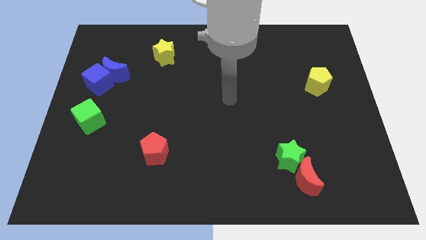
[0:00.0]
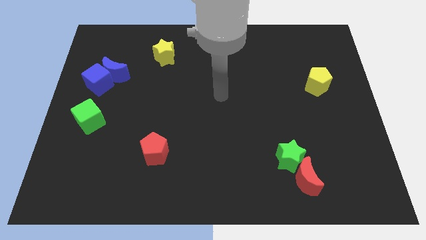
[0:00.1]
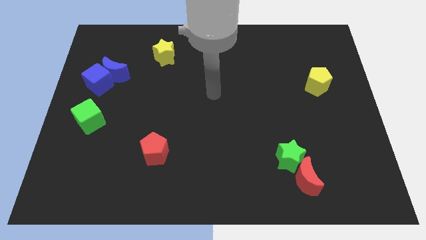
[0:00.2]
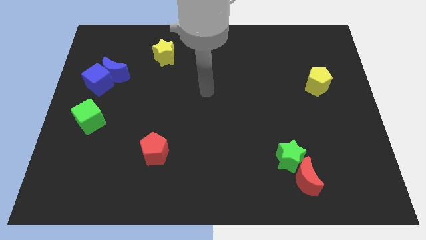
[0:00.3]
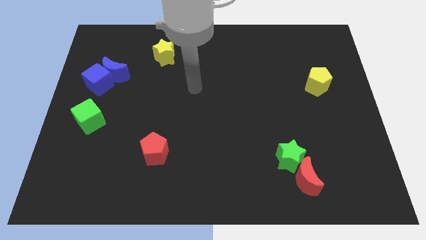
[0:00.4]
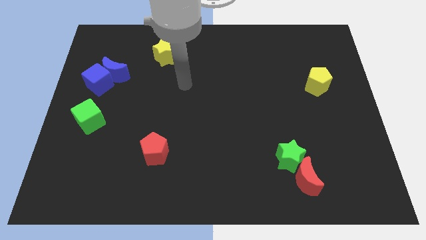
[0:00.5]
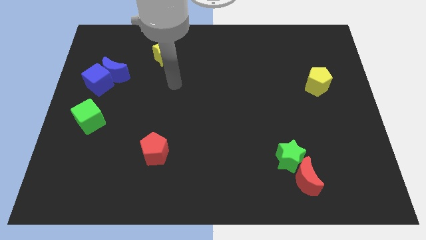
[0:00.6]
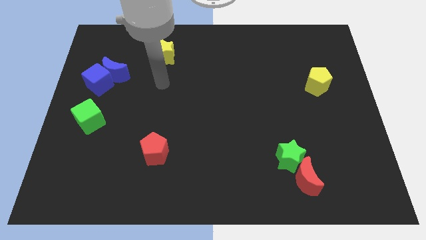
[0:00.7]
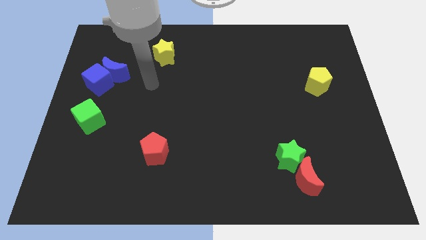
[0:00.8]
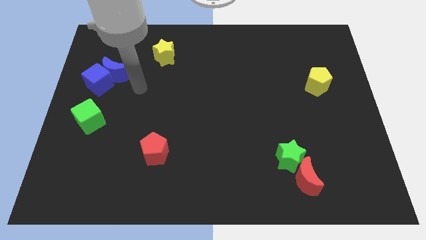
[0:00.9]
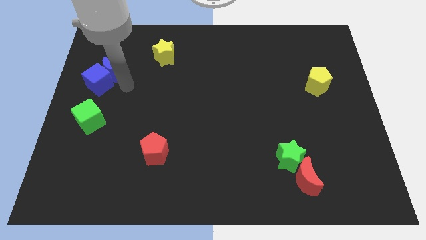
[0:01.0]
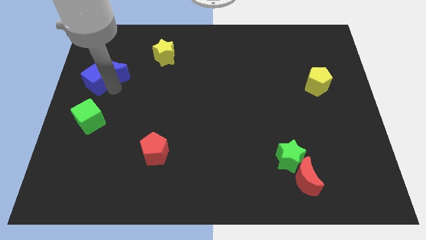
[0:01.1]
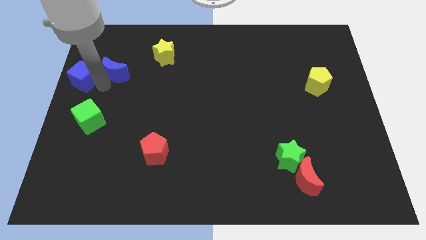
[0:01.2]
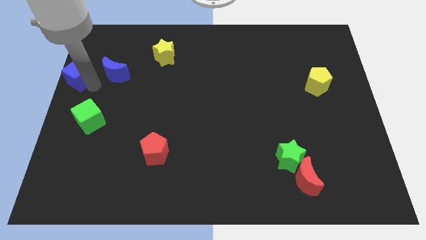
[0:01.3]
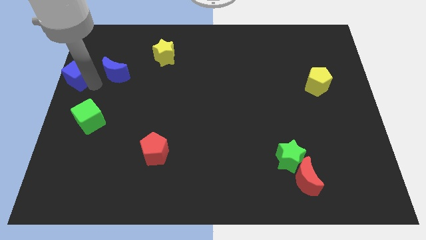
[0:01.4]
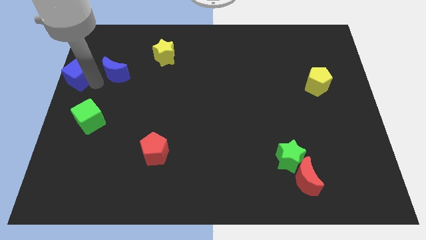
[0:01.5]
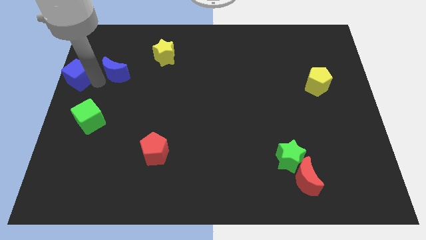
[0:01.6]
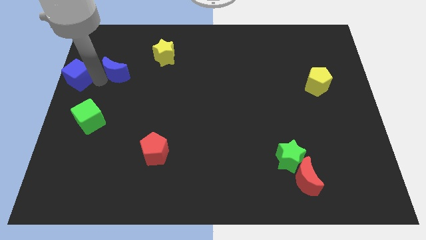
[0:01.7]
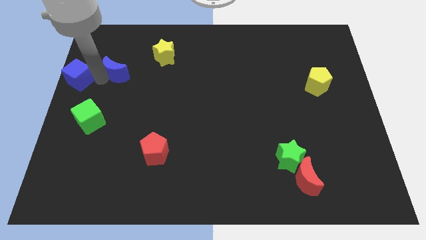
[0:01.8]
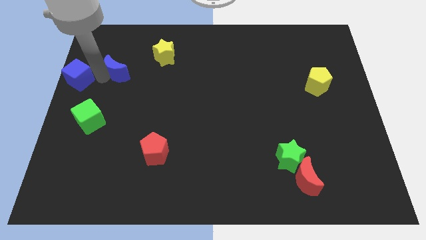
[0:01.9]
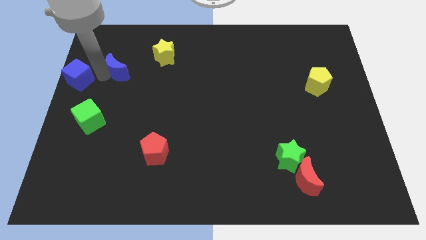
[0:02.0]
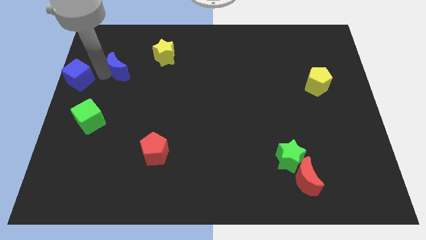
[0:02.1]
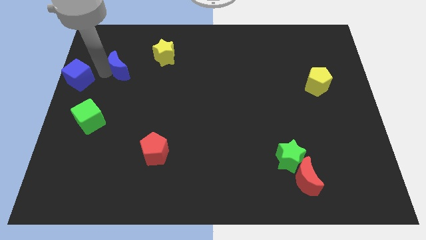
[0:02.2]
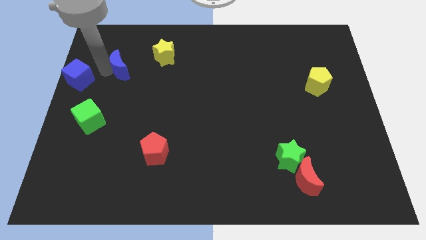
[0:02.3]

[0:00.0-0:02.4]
move the blue moon away from the blue cube

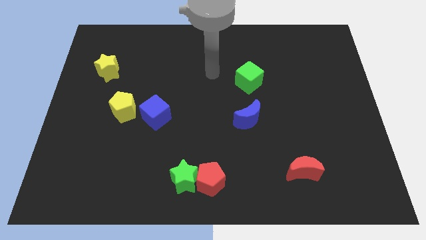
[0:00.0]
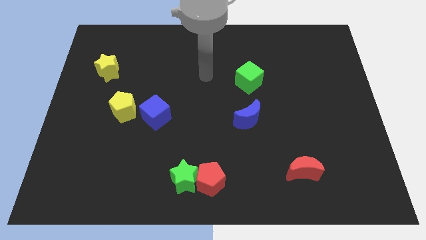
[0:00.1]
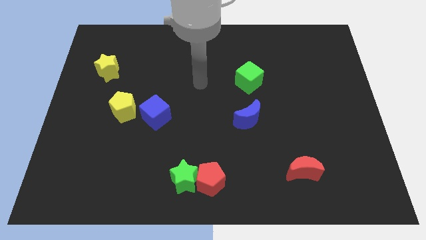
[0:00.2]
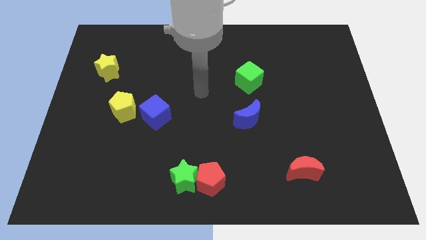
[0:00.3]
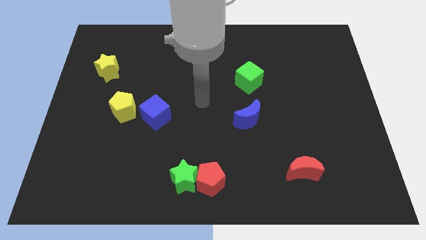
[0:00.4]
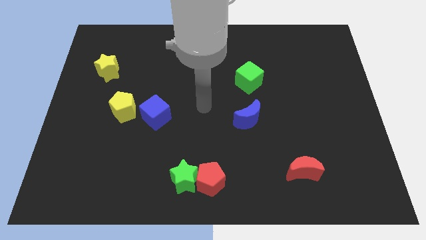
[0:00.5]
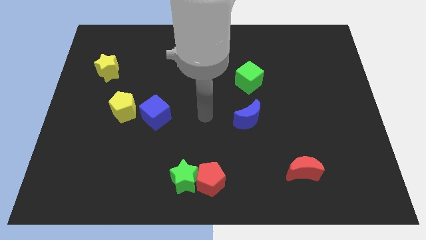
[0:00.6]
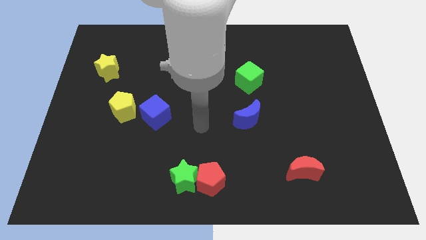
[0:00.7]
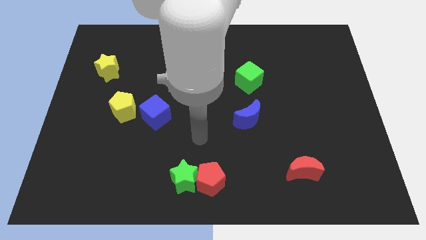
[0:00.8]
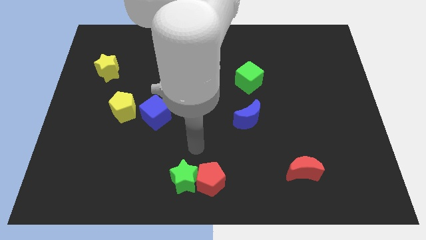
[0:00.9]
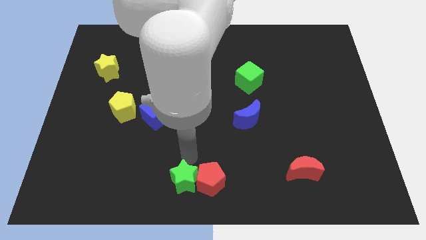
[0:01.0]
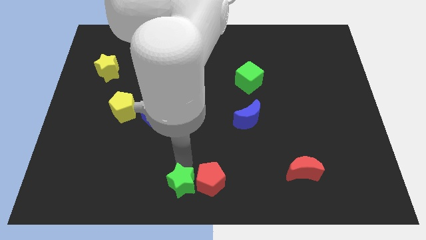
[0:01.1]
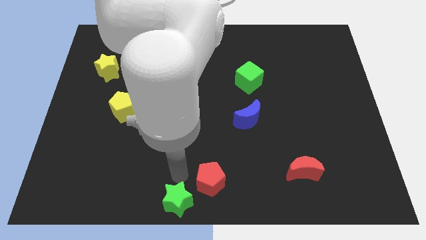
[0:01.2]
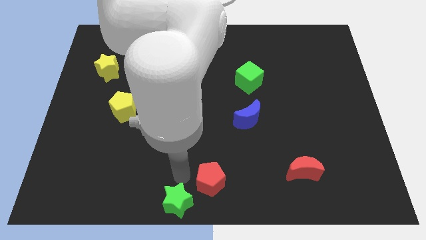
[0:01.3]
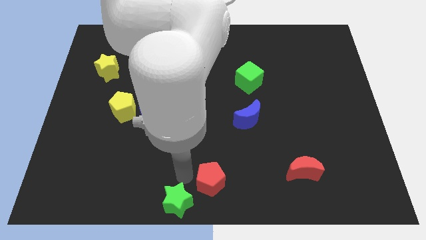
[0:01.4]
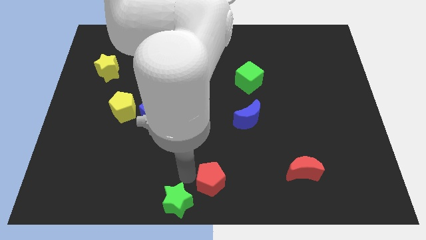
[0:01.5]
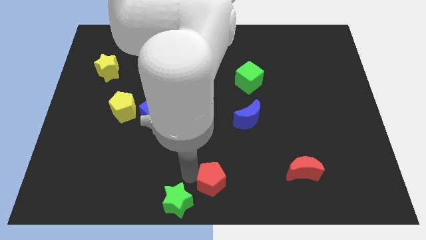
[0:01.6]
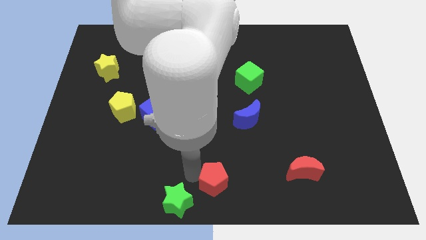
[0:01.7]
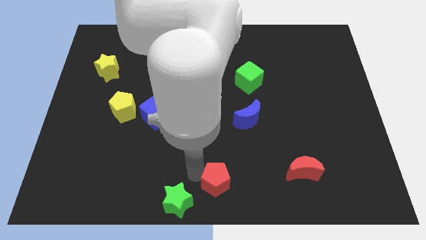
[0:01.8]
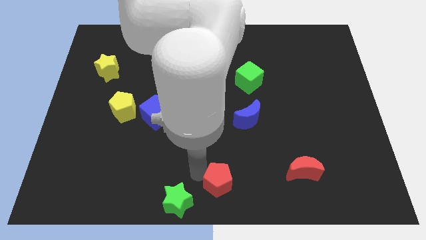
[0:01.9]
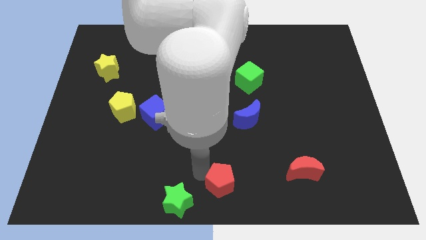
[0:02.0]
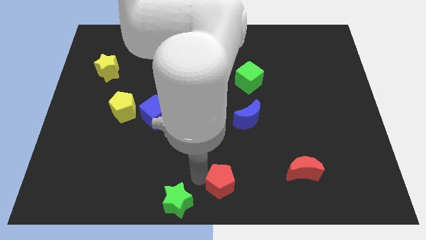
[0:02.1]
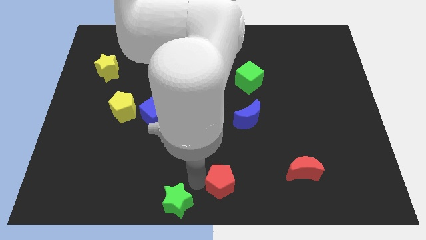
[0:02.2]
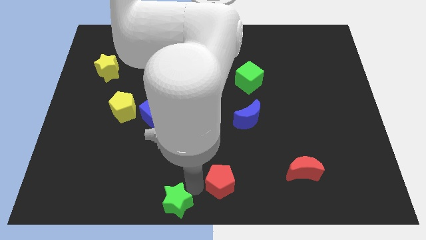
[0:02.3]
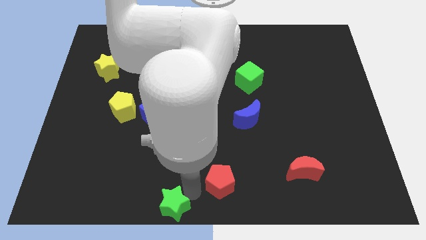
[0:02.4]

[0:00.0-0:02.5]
separate the red pentagon from the green star

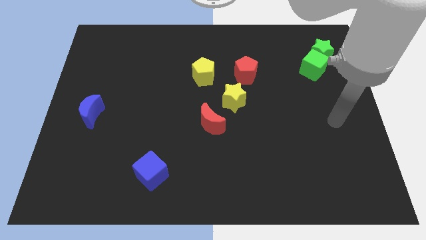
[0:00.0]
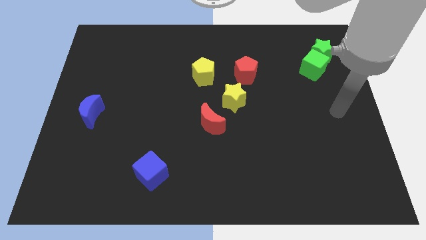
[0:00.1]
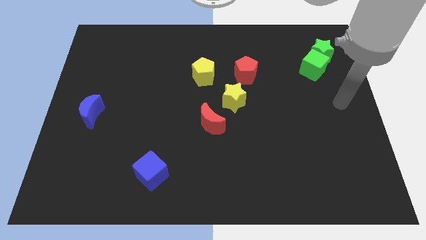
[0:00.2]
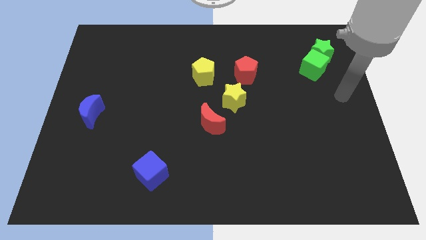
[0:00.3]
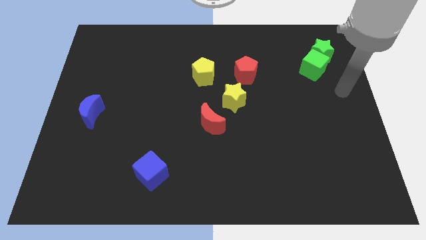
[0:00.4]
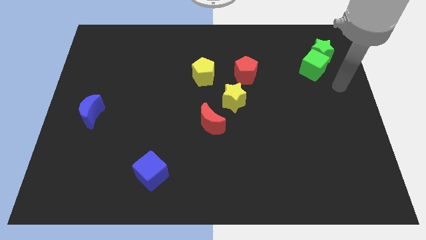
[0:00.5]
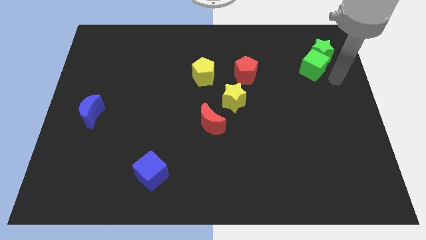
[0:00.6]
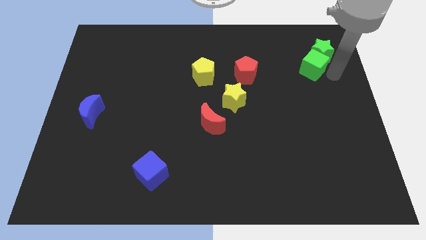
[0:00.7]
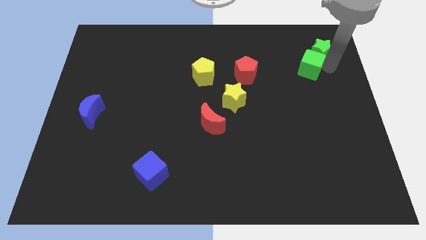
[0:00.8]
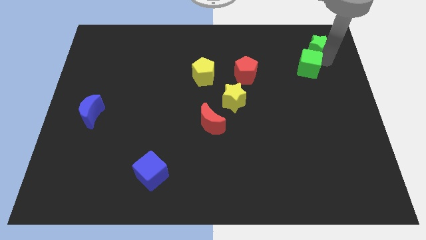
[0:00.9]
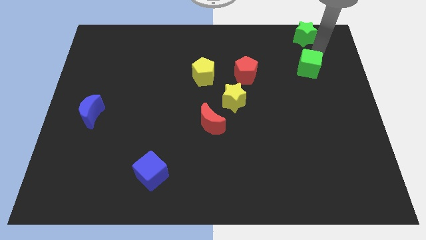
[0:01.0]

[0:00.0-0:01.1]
pull the green cube apart from the green star

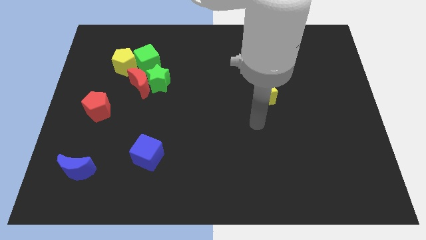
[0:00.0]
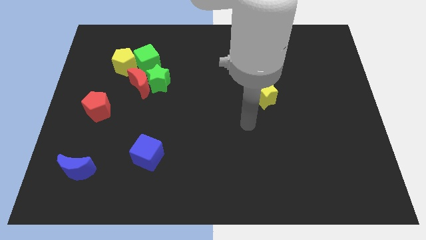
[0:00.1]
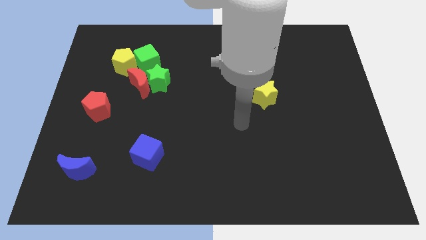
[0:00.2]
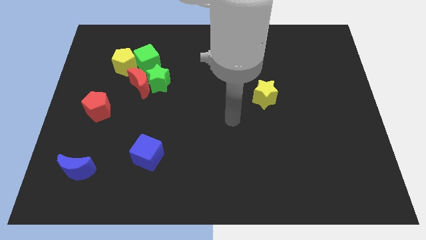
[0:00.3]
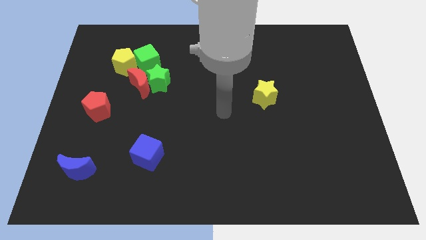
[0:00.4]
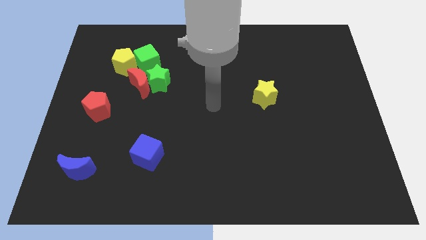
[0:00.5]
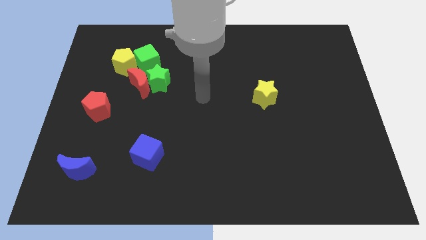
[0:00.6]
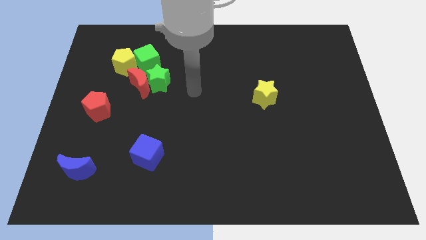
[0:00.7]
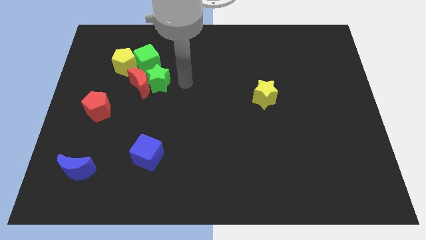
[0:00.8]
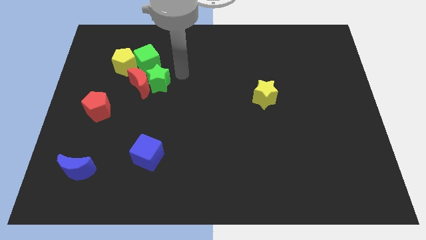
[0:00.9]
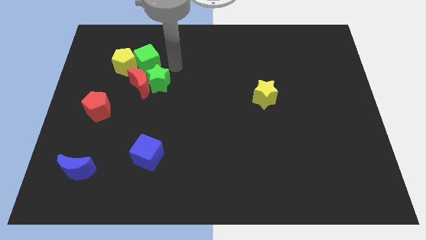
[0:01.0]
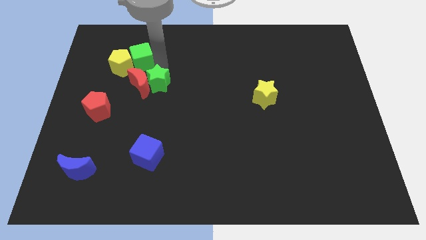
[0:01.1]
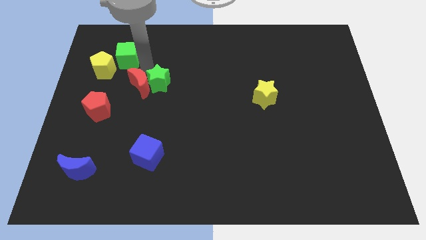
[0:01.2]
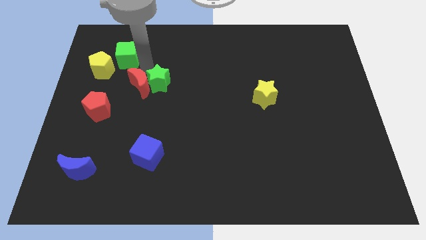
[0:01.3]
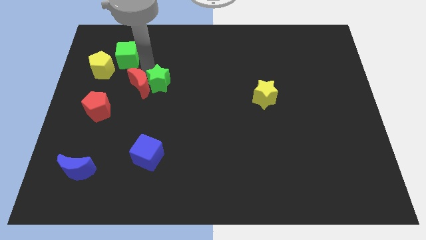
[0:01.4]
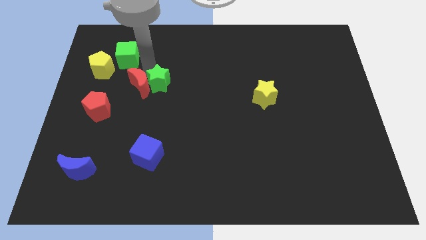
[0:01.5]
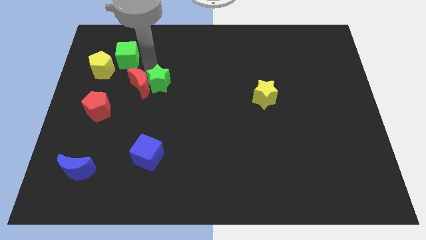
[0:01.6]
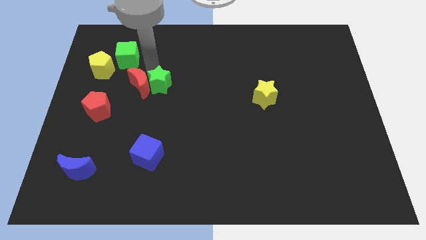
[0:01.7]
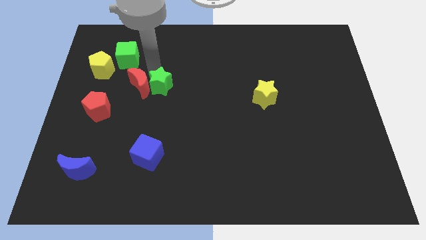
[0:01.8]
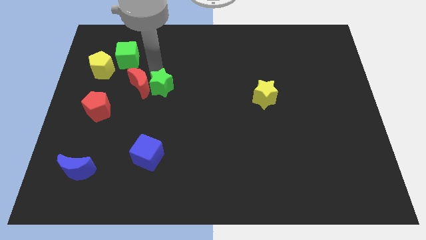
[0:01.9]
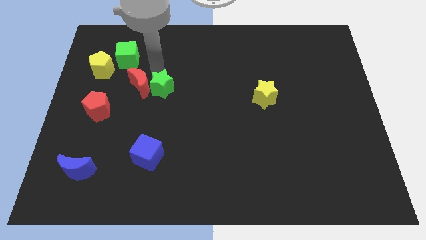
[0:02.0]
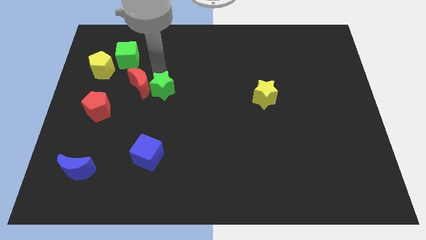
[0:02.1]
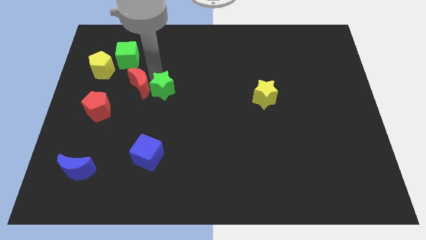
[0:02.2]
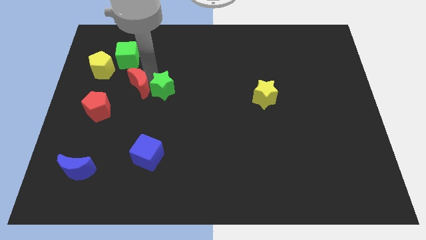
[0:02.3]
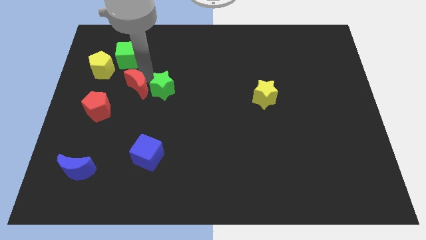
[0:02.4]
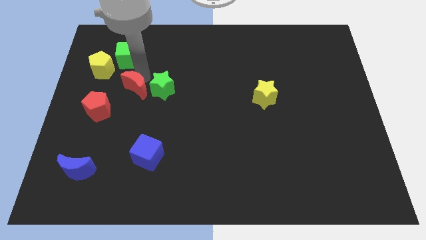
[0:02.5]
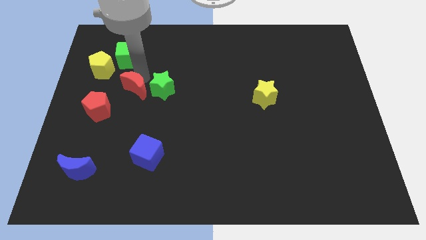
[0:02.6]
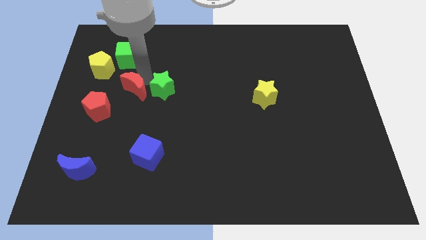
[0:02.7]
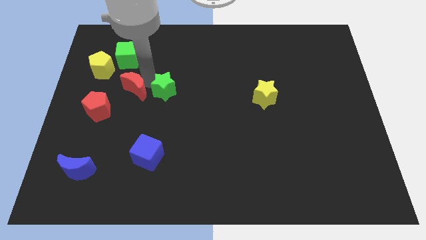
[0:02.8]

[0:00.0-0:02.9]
separate the green star from the red moon and green cube

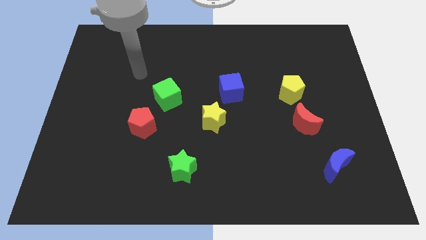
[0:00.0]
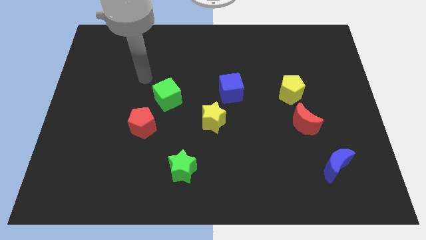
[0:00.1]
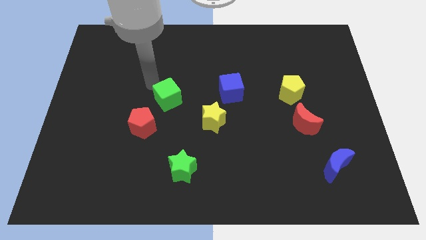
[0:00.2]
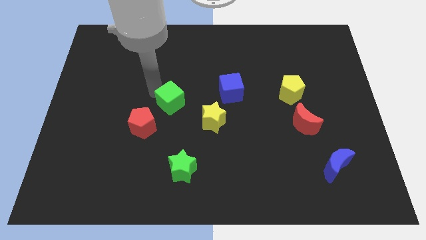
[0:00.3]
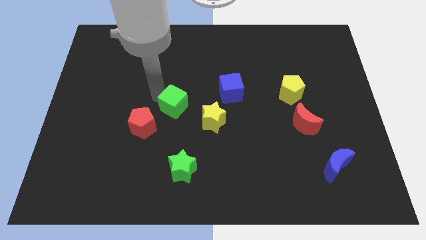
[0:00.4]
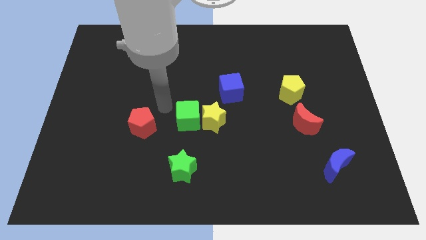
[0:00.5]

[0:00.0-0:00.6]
pull the red pentagon apart from the green cube
